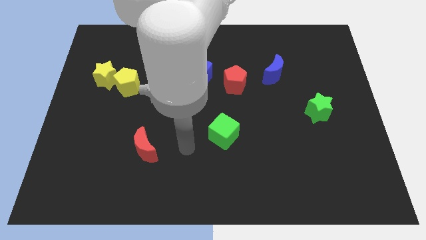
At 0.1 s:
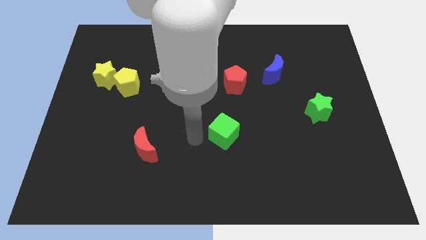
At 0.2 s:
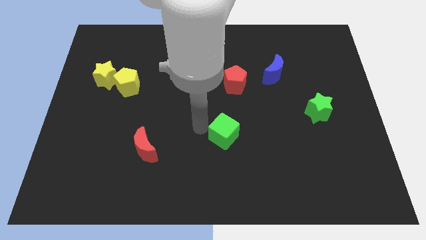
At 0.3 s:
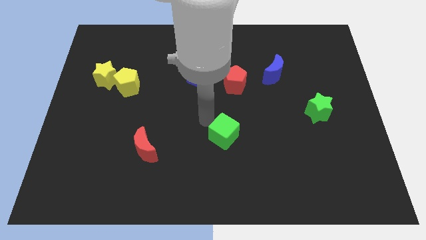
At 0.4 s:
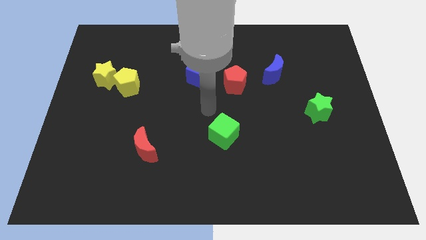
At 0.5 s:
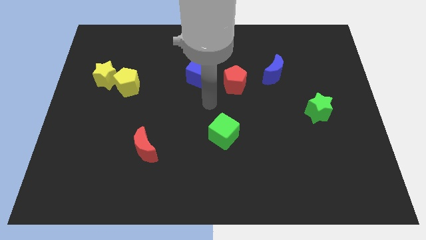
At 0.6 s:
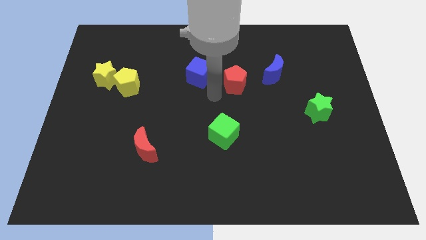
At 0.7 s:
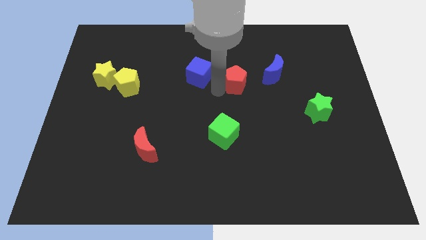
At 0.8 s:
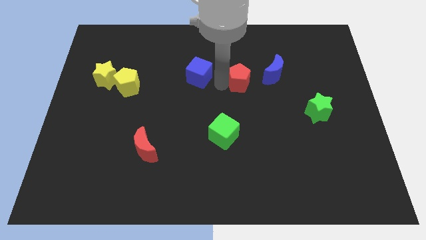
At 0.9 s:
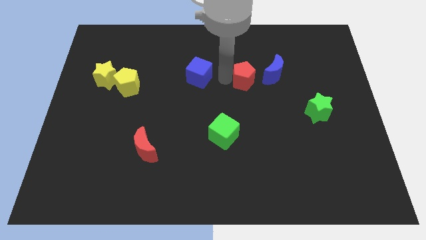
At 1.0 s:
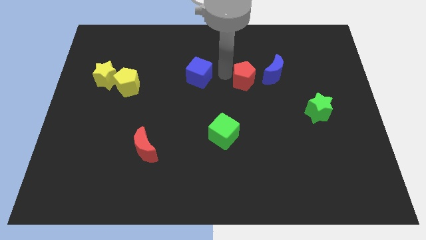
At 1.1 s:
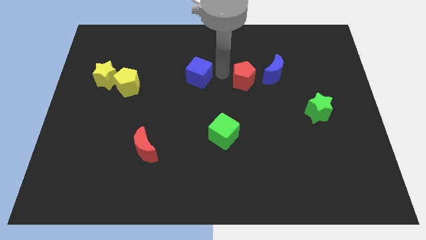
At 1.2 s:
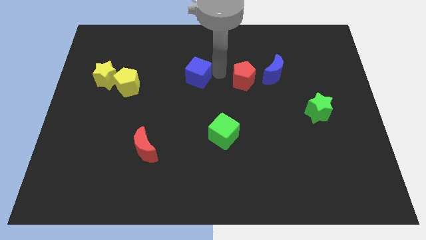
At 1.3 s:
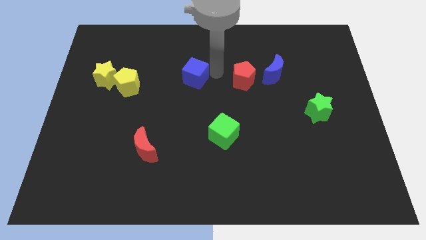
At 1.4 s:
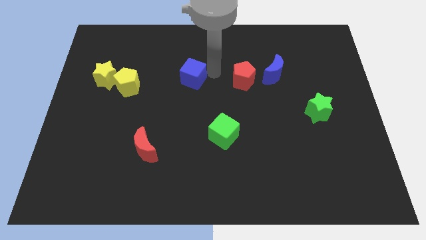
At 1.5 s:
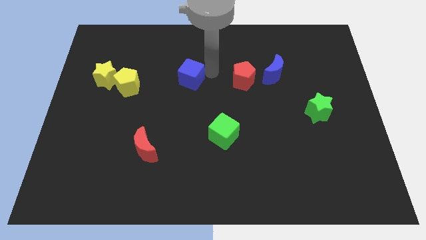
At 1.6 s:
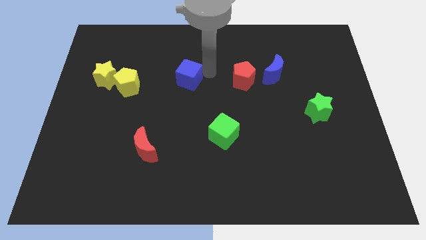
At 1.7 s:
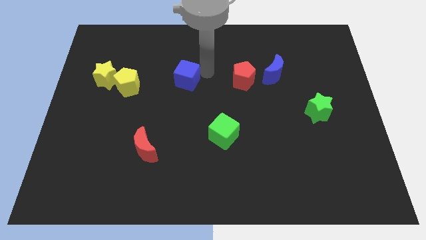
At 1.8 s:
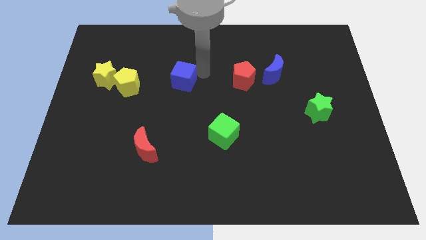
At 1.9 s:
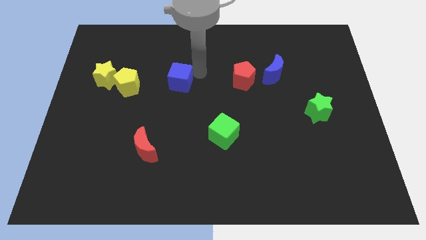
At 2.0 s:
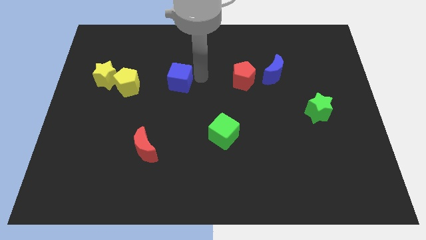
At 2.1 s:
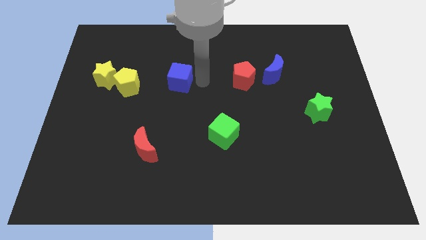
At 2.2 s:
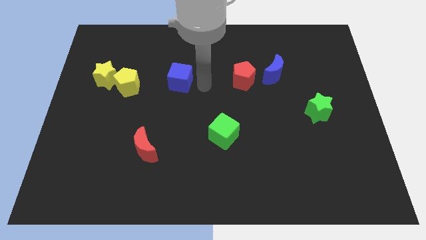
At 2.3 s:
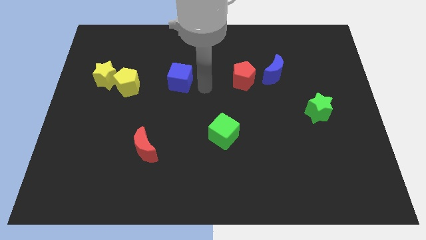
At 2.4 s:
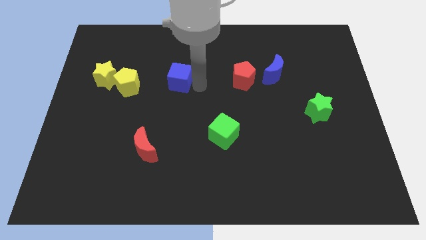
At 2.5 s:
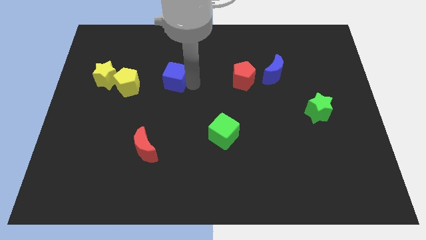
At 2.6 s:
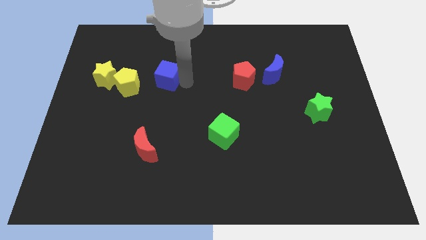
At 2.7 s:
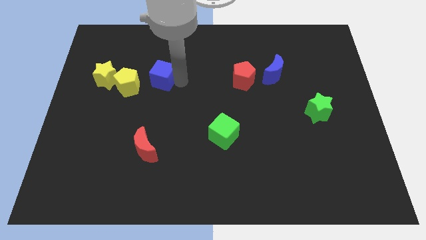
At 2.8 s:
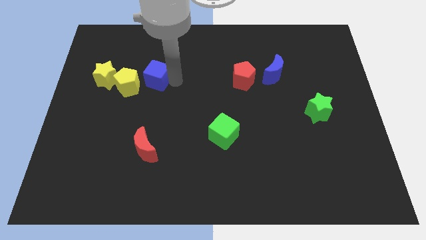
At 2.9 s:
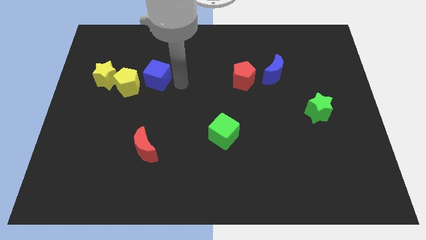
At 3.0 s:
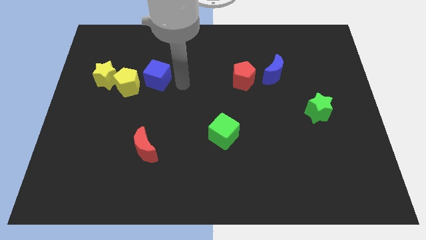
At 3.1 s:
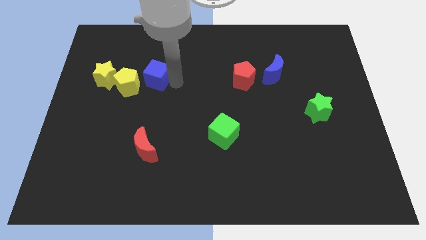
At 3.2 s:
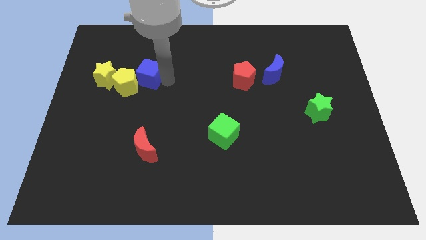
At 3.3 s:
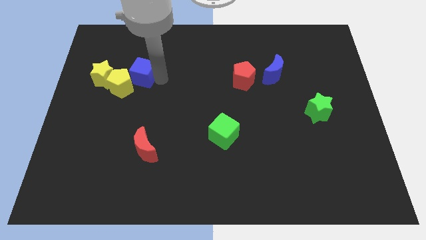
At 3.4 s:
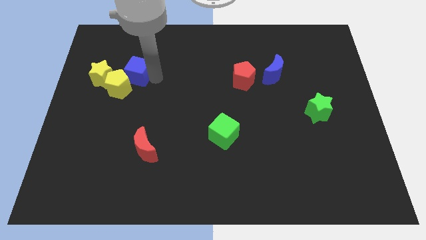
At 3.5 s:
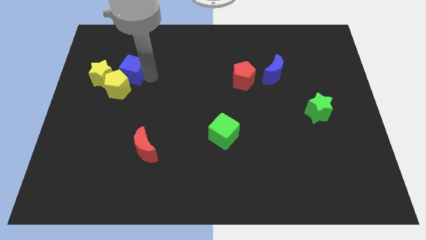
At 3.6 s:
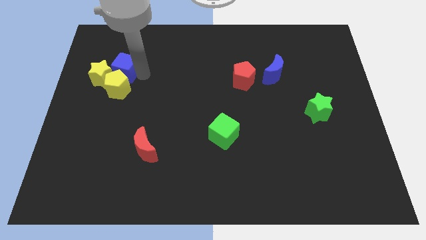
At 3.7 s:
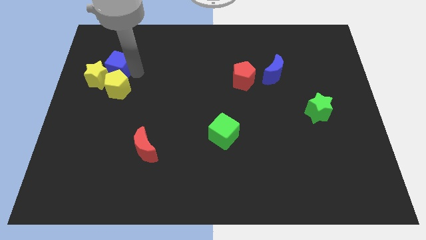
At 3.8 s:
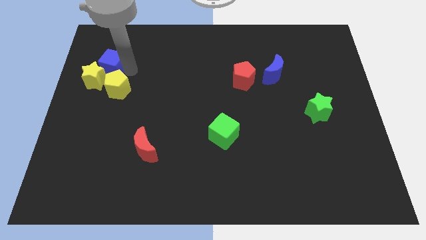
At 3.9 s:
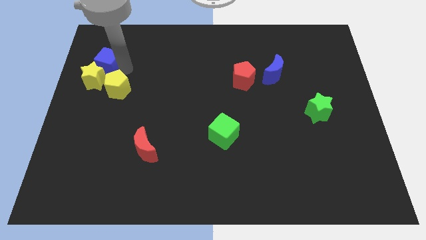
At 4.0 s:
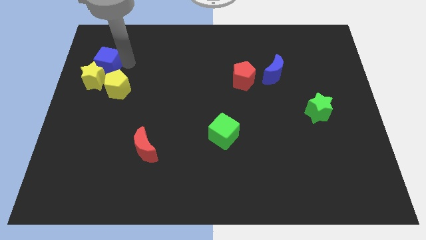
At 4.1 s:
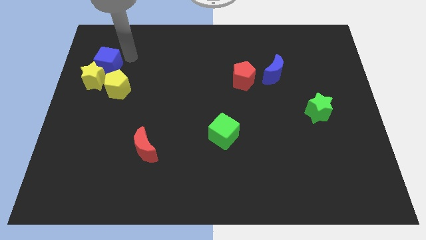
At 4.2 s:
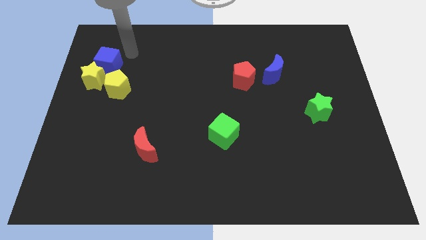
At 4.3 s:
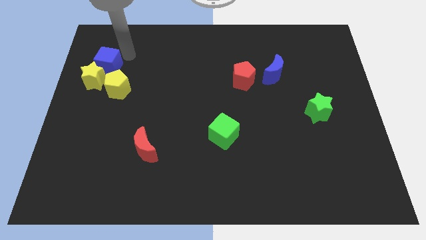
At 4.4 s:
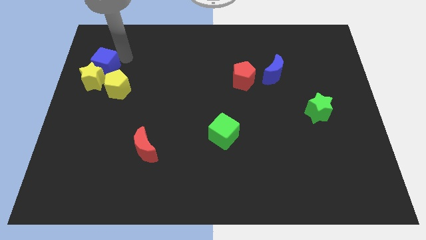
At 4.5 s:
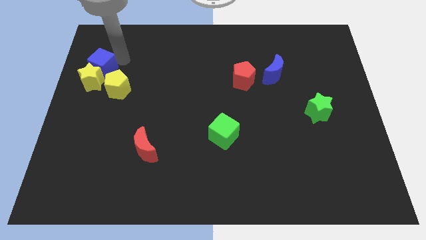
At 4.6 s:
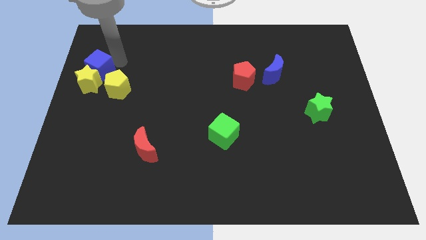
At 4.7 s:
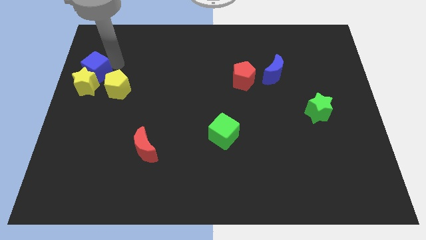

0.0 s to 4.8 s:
push the blue cube to the left side

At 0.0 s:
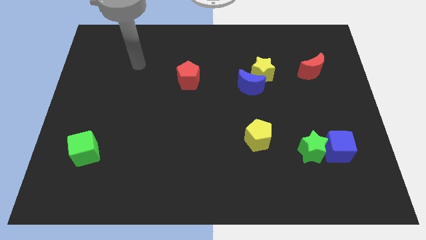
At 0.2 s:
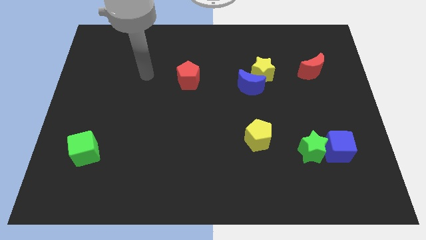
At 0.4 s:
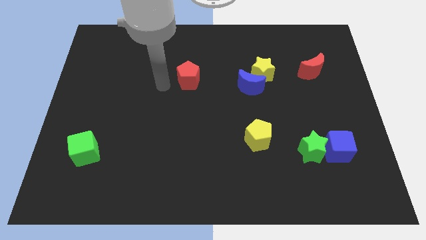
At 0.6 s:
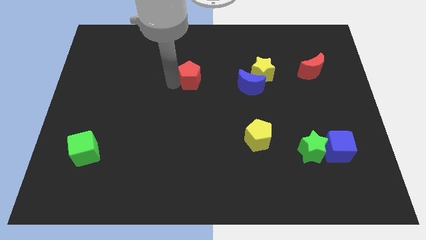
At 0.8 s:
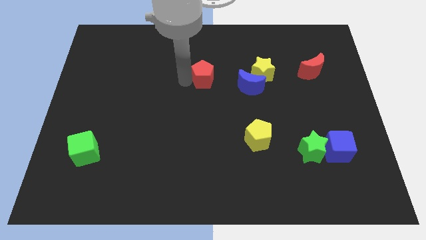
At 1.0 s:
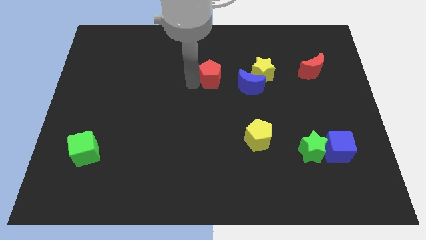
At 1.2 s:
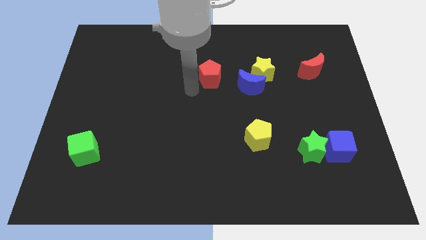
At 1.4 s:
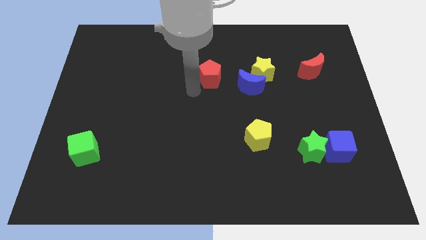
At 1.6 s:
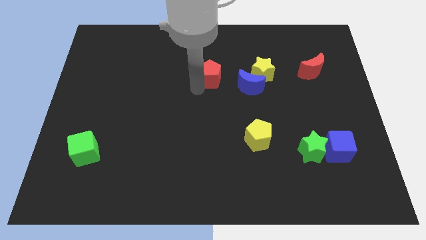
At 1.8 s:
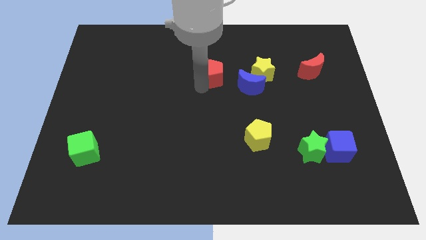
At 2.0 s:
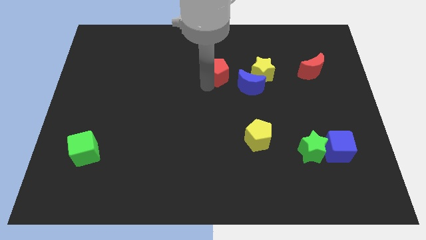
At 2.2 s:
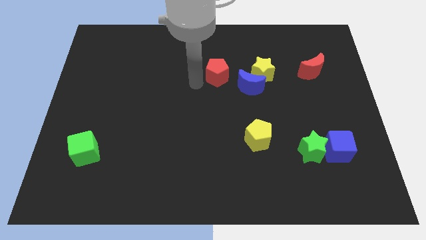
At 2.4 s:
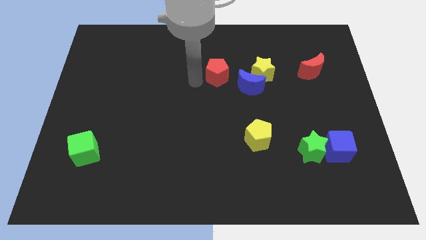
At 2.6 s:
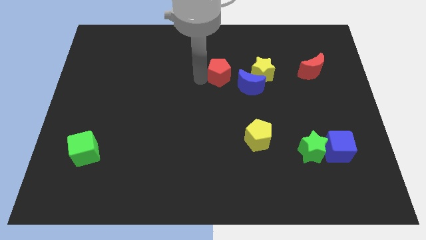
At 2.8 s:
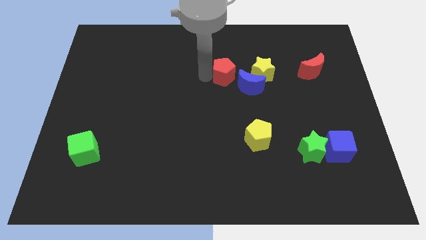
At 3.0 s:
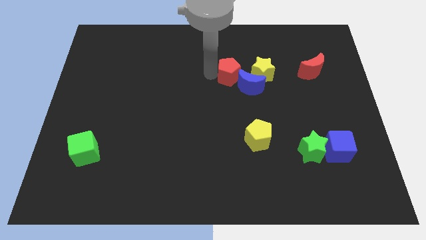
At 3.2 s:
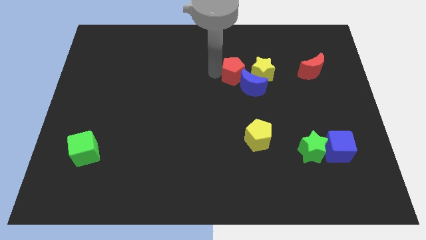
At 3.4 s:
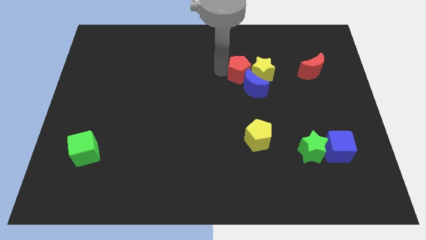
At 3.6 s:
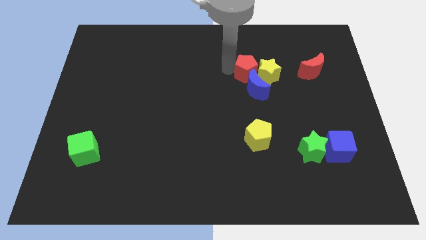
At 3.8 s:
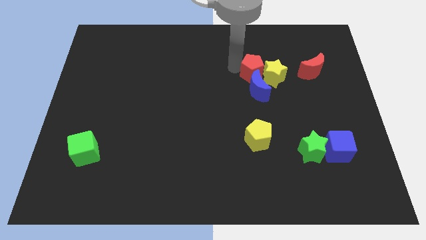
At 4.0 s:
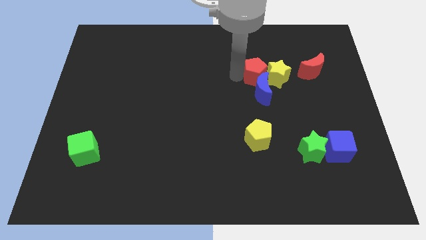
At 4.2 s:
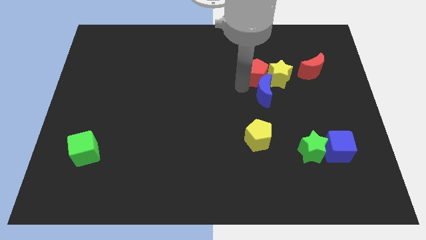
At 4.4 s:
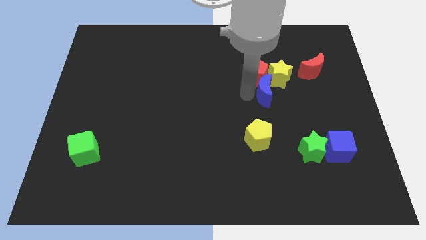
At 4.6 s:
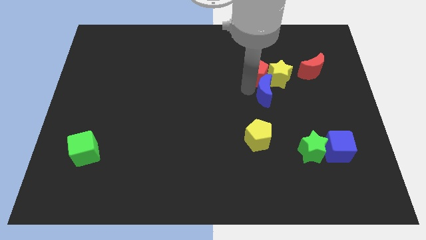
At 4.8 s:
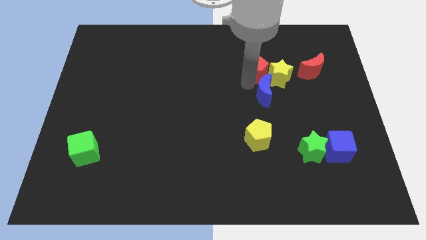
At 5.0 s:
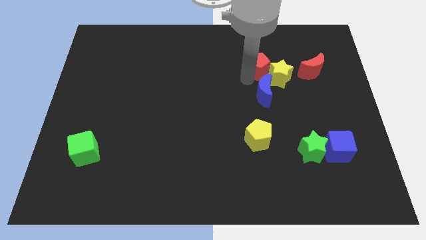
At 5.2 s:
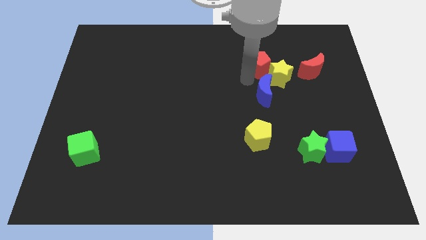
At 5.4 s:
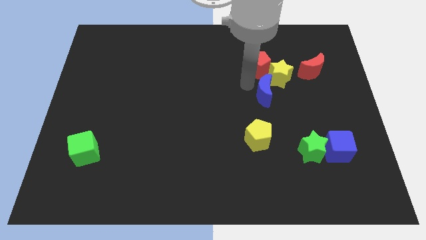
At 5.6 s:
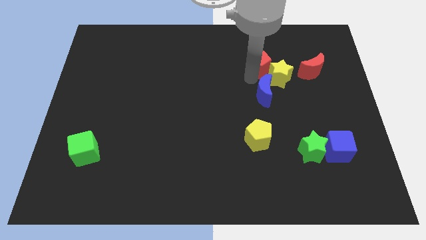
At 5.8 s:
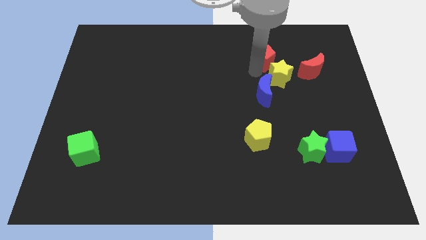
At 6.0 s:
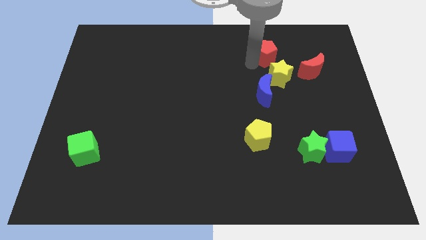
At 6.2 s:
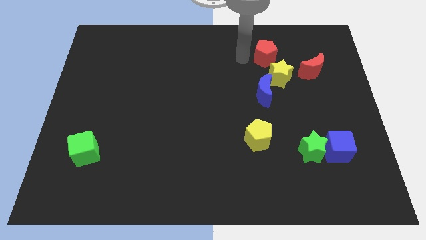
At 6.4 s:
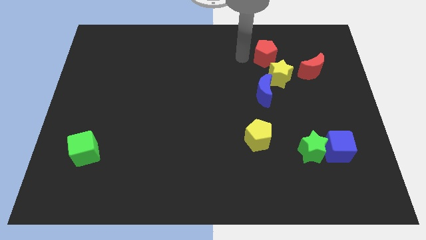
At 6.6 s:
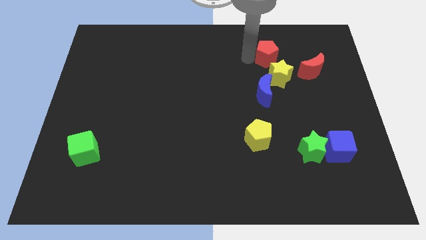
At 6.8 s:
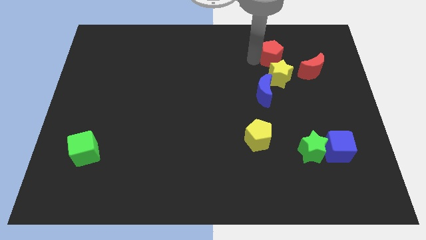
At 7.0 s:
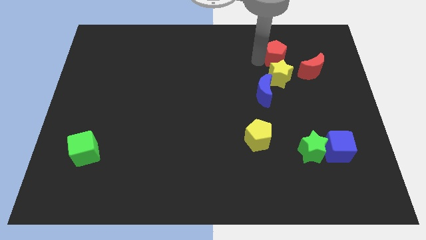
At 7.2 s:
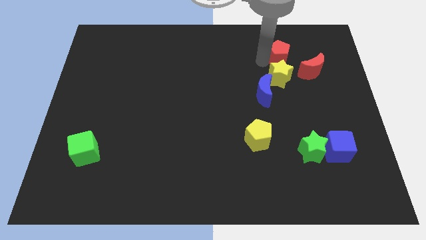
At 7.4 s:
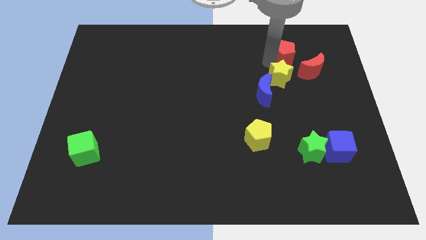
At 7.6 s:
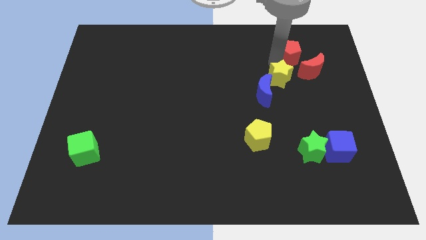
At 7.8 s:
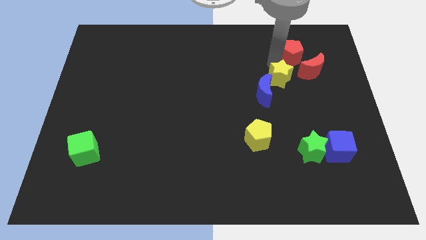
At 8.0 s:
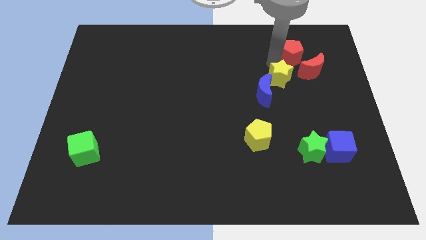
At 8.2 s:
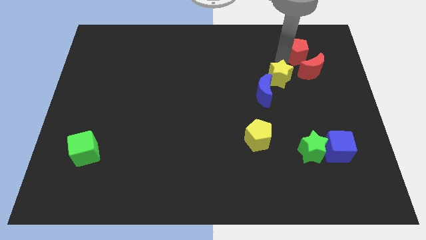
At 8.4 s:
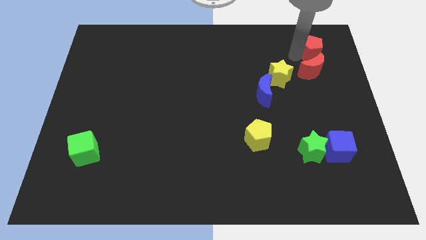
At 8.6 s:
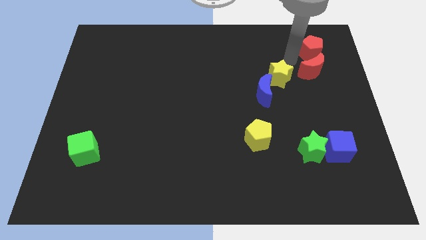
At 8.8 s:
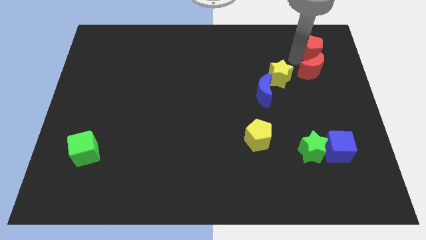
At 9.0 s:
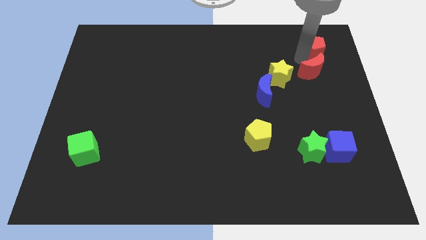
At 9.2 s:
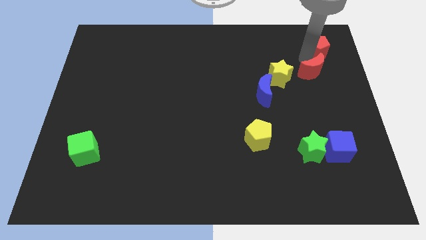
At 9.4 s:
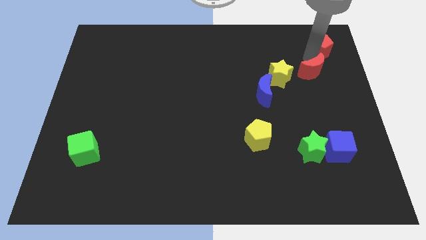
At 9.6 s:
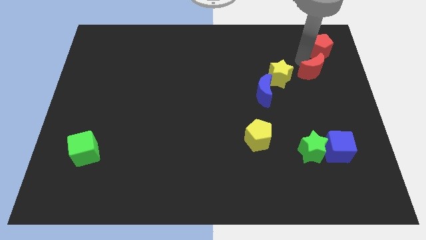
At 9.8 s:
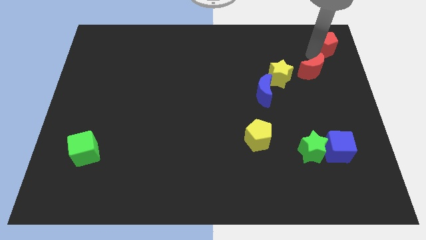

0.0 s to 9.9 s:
slide the red pentagon to the upper right corner
